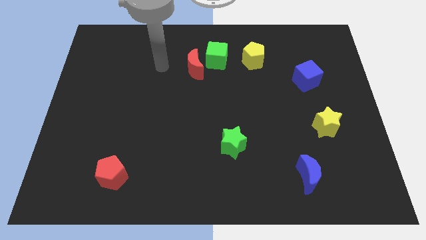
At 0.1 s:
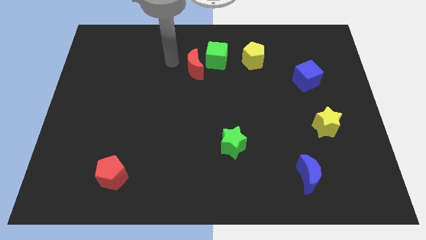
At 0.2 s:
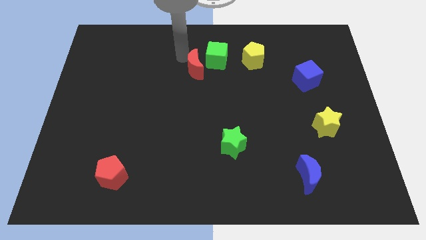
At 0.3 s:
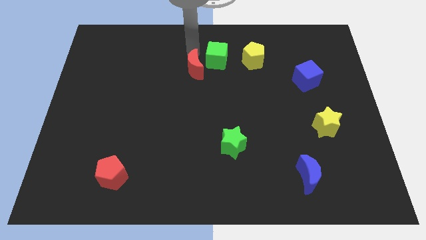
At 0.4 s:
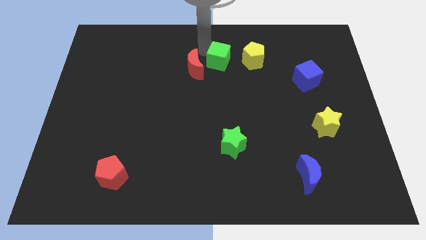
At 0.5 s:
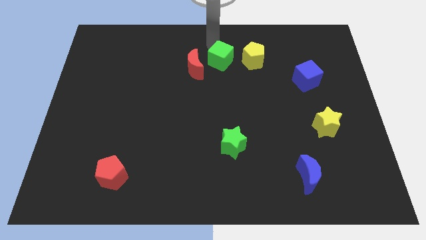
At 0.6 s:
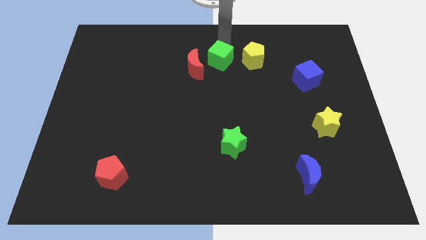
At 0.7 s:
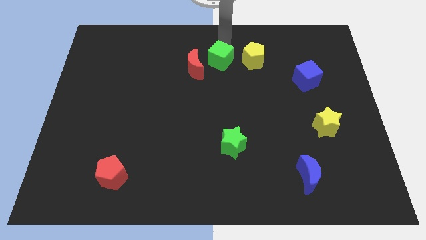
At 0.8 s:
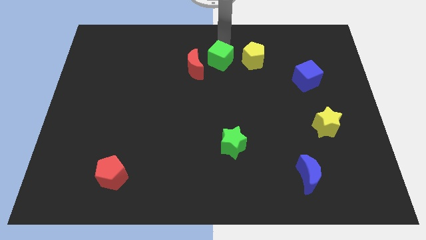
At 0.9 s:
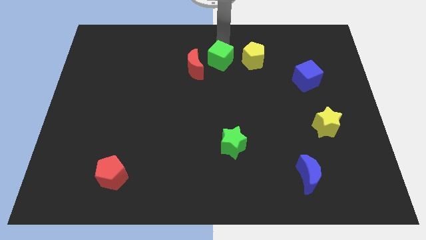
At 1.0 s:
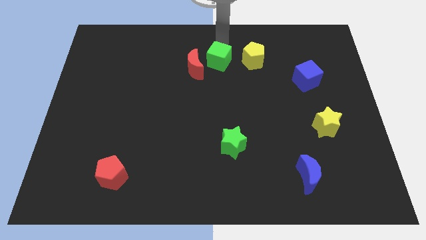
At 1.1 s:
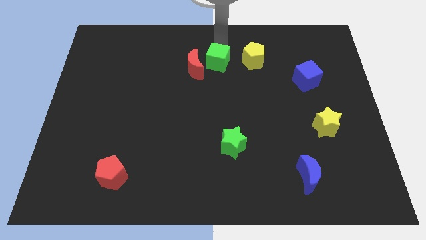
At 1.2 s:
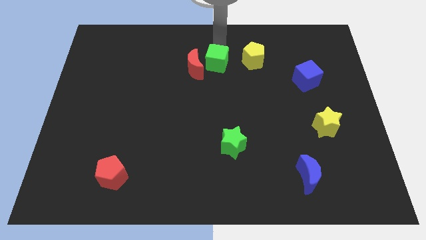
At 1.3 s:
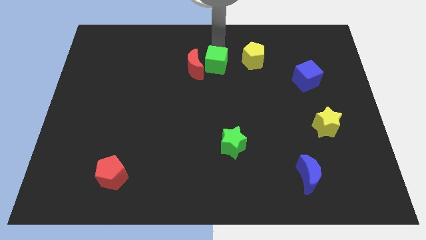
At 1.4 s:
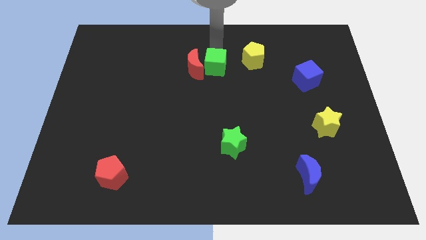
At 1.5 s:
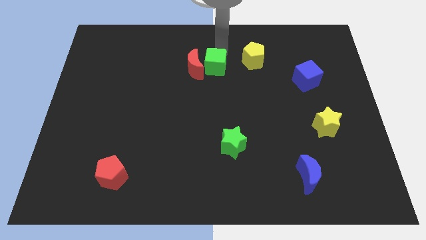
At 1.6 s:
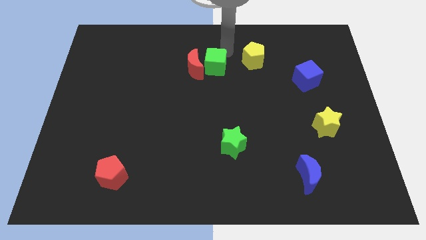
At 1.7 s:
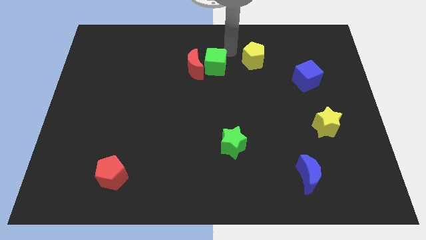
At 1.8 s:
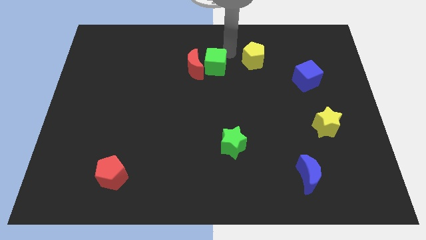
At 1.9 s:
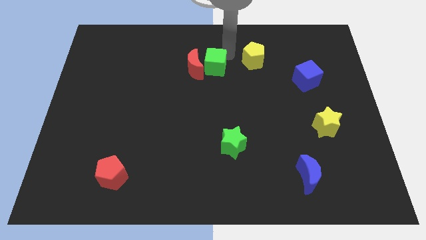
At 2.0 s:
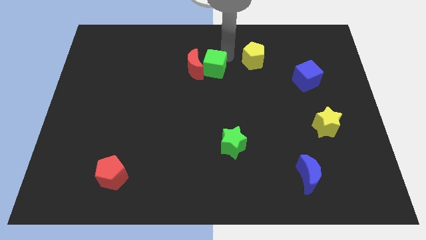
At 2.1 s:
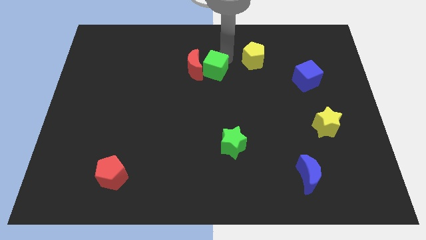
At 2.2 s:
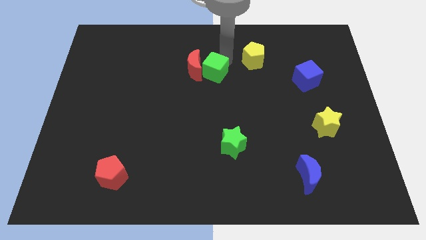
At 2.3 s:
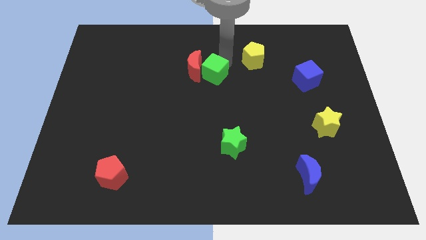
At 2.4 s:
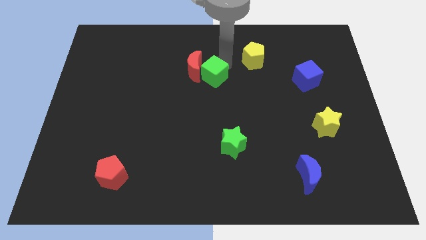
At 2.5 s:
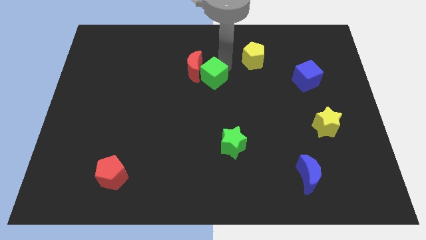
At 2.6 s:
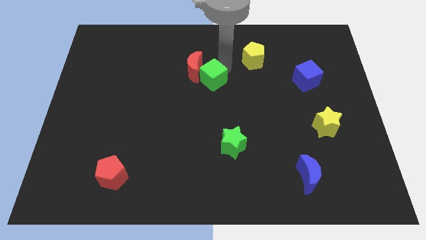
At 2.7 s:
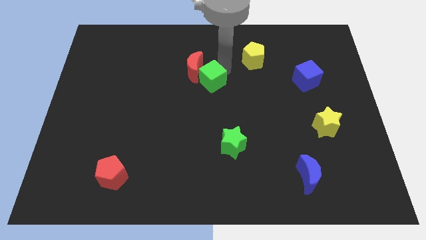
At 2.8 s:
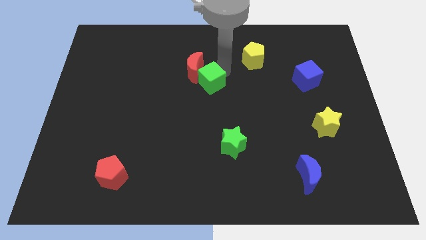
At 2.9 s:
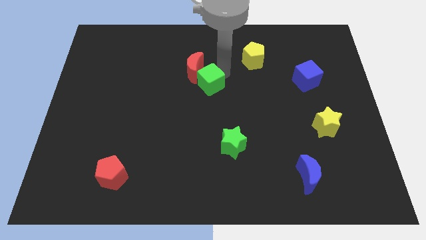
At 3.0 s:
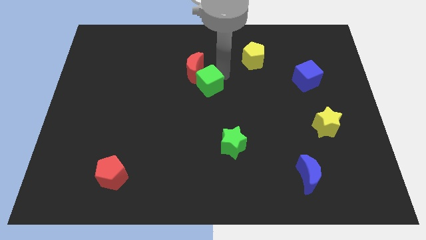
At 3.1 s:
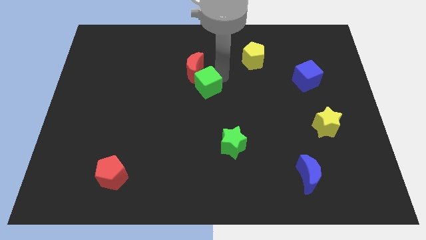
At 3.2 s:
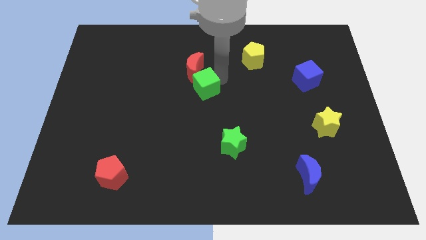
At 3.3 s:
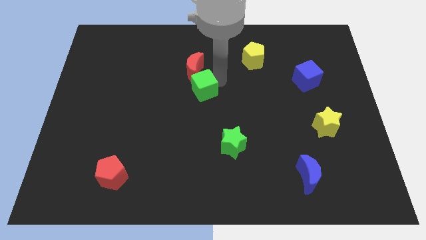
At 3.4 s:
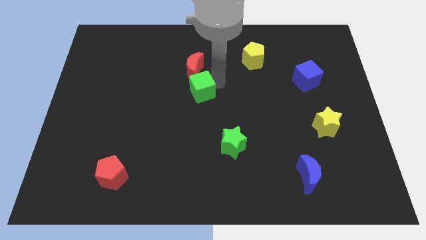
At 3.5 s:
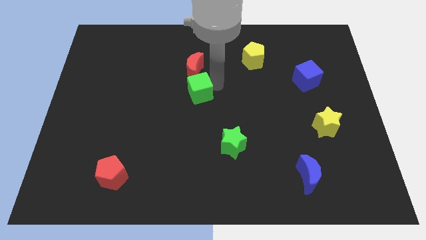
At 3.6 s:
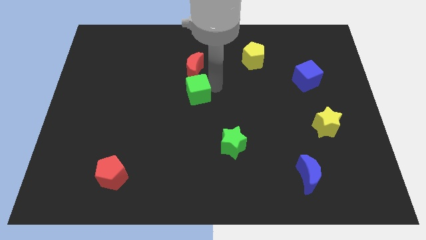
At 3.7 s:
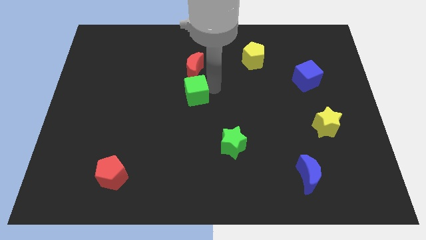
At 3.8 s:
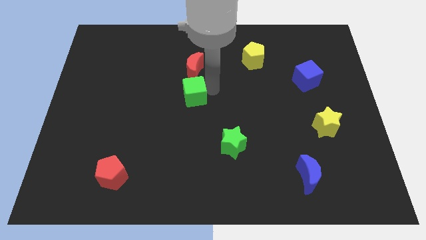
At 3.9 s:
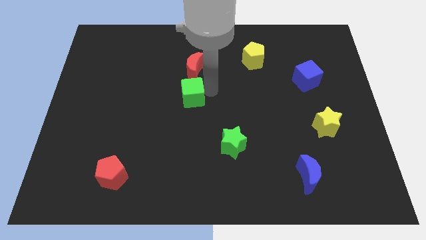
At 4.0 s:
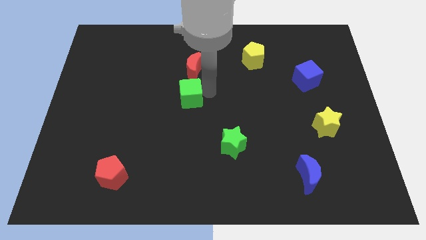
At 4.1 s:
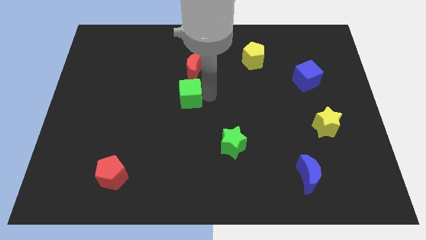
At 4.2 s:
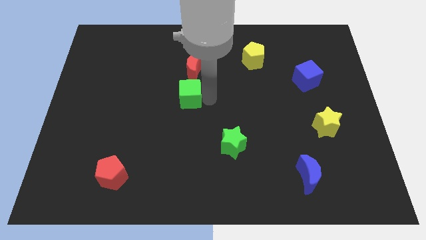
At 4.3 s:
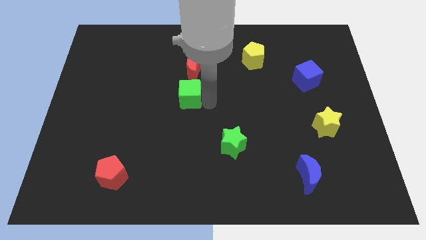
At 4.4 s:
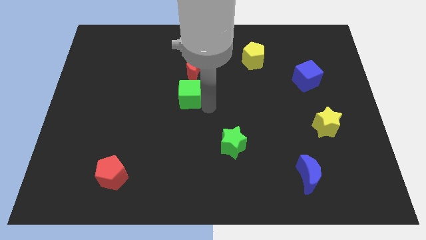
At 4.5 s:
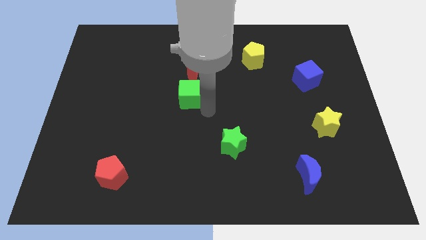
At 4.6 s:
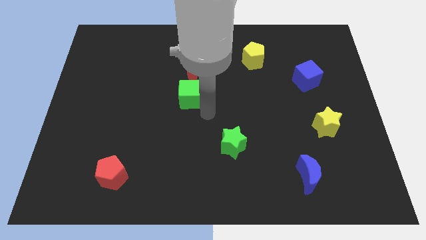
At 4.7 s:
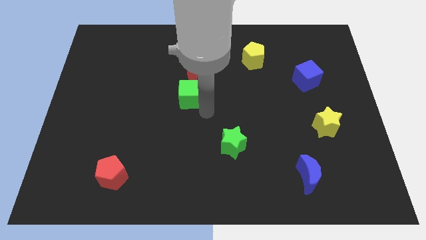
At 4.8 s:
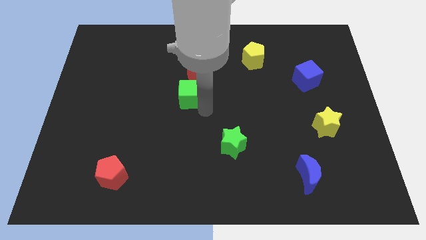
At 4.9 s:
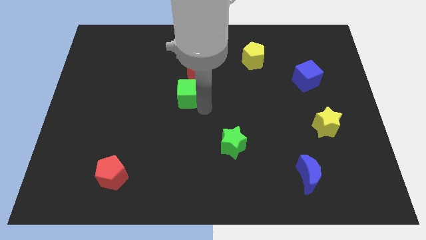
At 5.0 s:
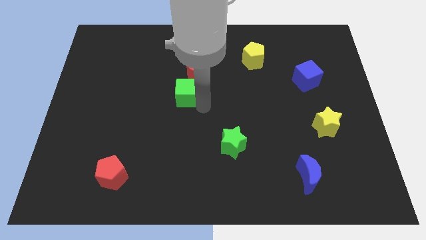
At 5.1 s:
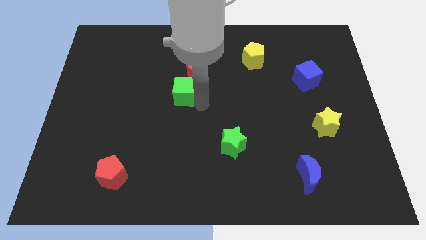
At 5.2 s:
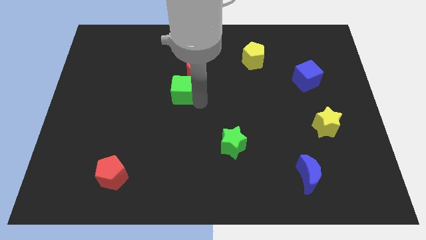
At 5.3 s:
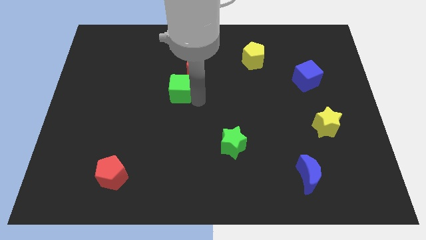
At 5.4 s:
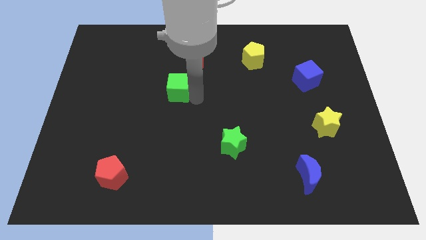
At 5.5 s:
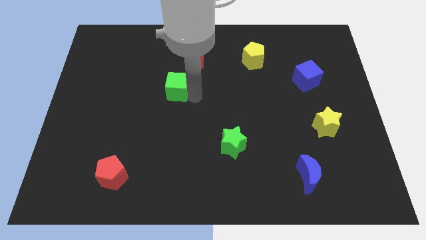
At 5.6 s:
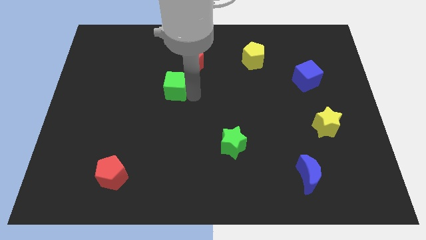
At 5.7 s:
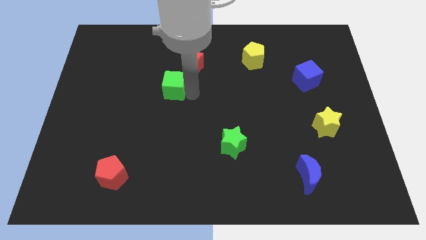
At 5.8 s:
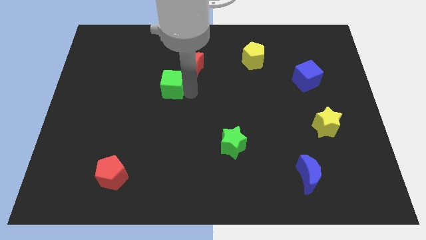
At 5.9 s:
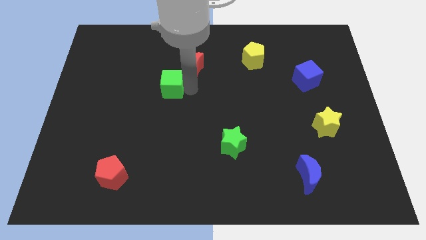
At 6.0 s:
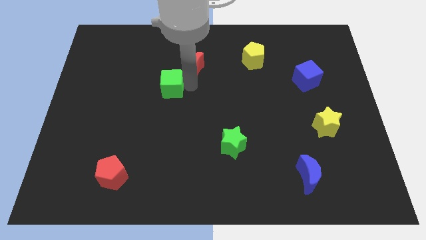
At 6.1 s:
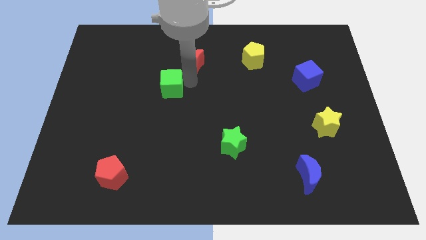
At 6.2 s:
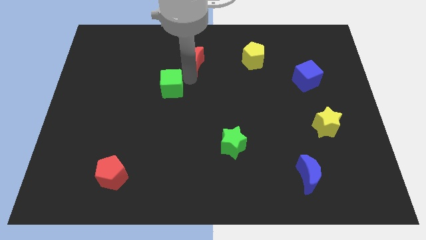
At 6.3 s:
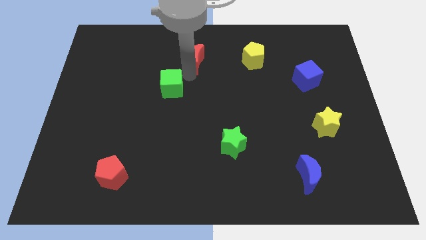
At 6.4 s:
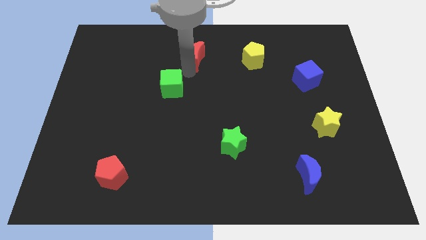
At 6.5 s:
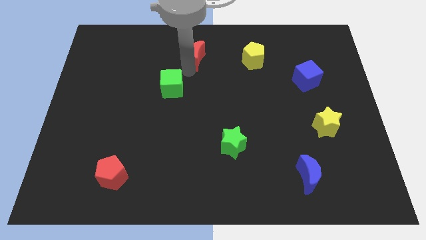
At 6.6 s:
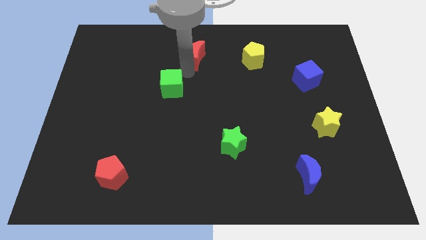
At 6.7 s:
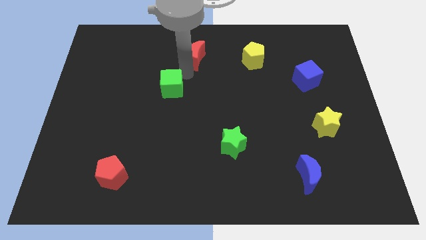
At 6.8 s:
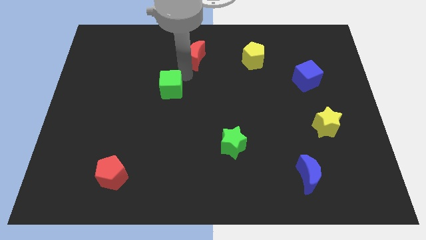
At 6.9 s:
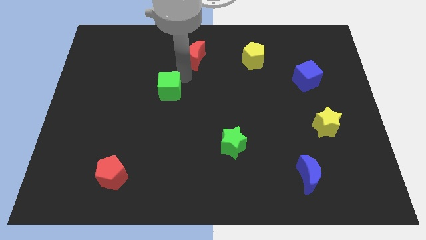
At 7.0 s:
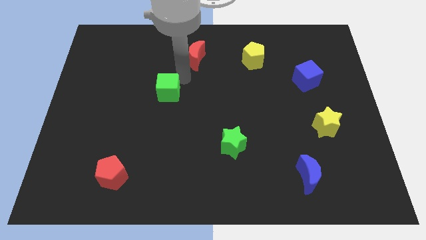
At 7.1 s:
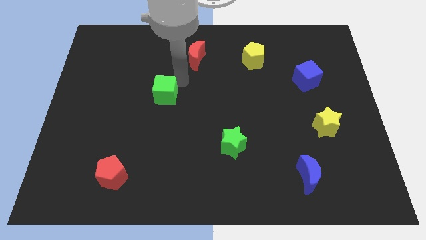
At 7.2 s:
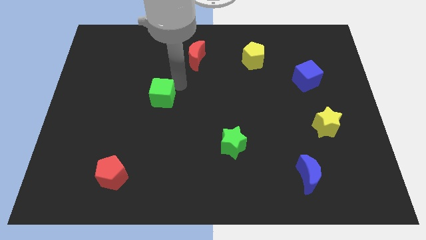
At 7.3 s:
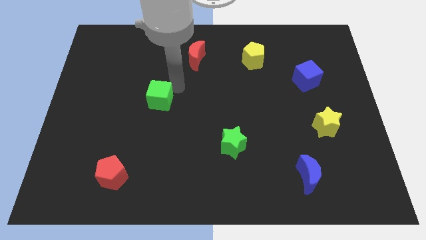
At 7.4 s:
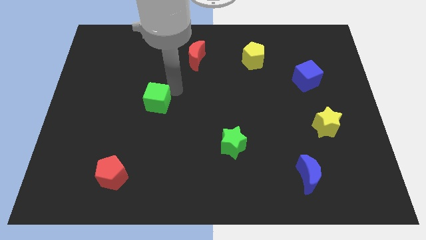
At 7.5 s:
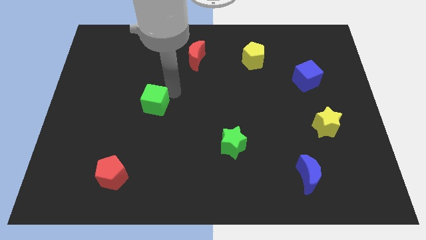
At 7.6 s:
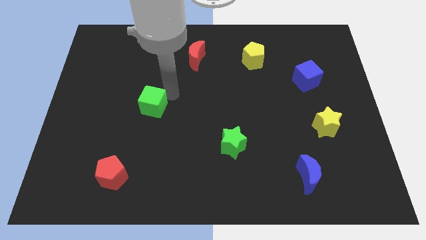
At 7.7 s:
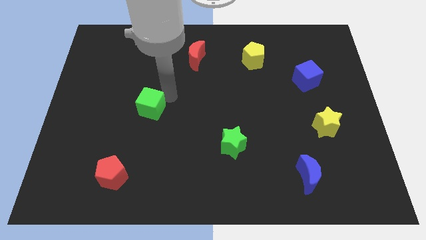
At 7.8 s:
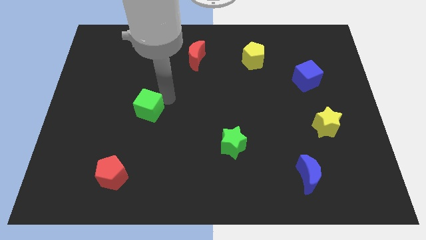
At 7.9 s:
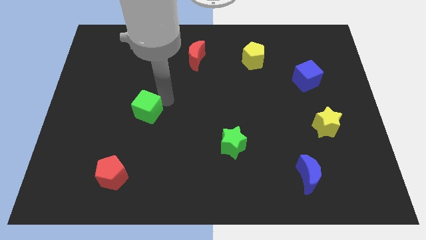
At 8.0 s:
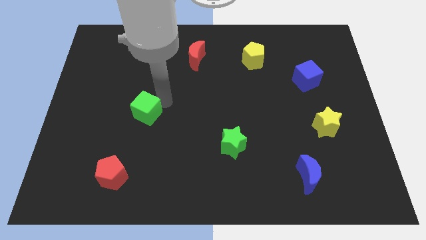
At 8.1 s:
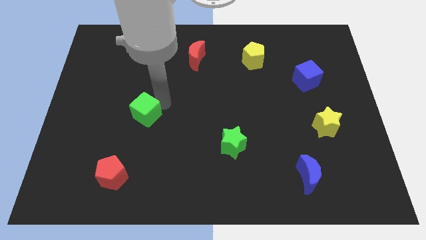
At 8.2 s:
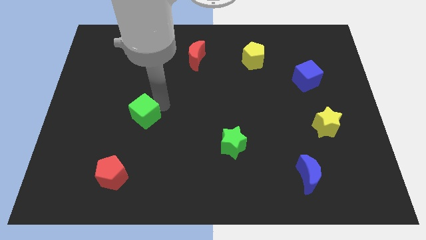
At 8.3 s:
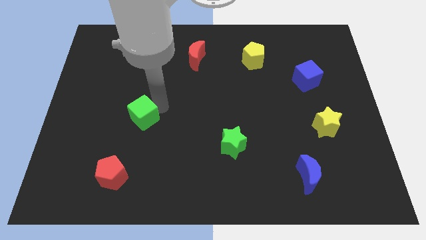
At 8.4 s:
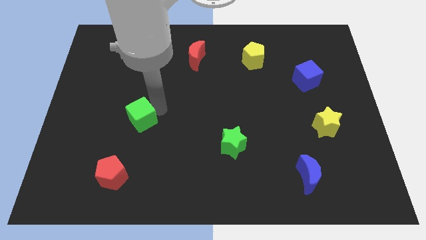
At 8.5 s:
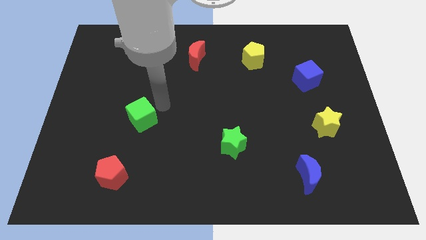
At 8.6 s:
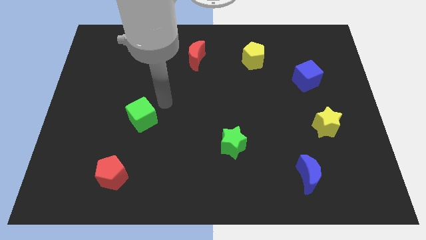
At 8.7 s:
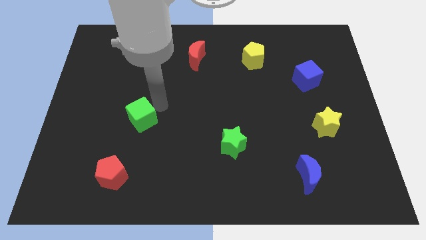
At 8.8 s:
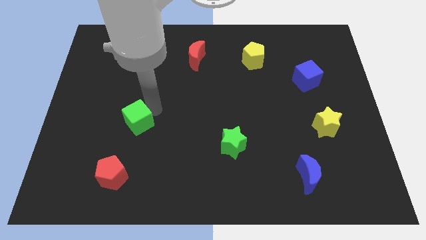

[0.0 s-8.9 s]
move the green cube above the red pentagon
